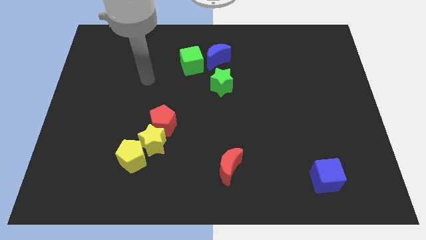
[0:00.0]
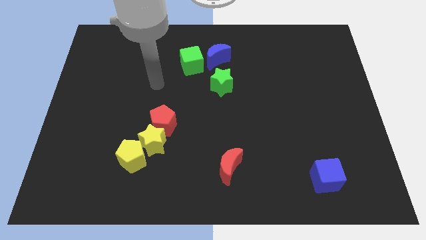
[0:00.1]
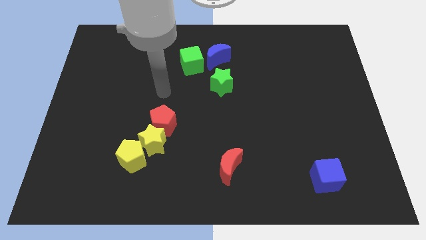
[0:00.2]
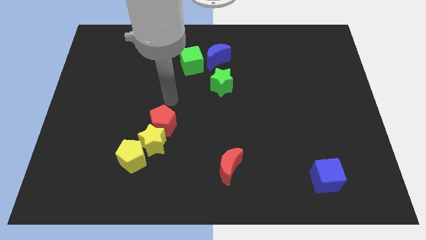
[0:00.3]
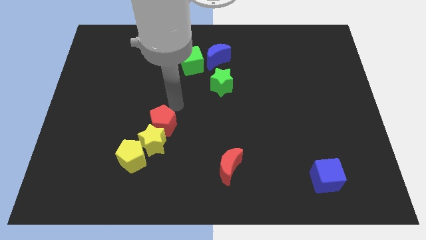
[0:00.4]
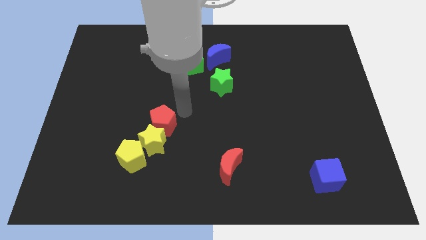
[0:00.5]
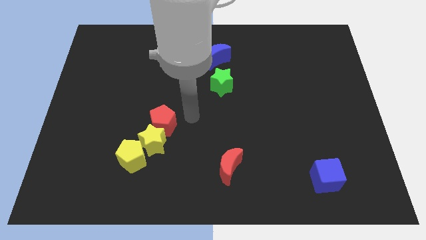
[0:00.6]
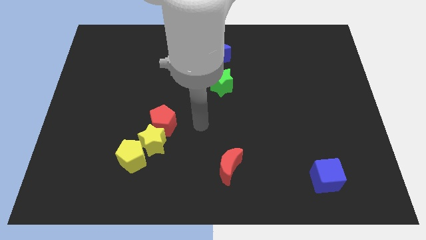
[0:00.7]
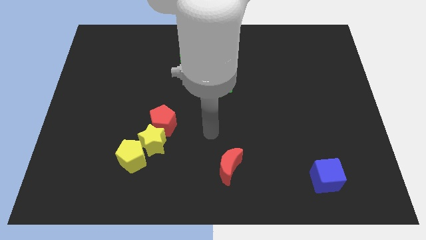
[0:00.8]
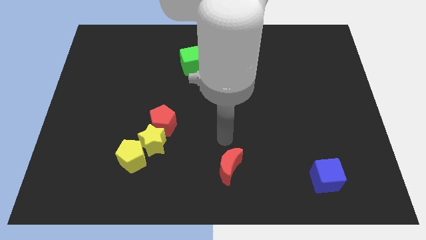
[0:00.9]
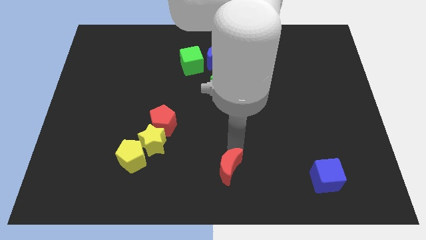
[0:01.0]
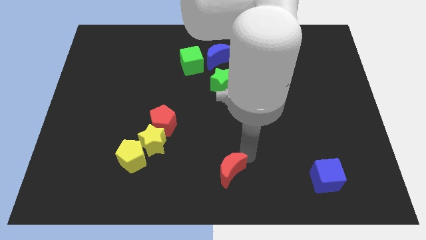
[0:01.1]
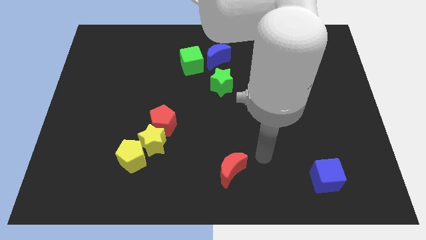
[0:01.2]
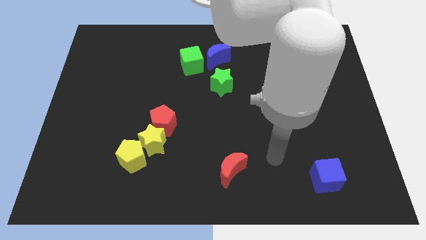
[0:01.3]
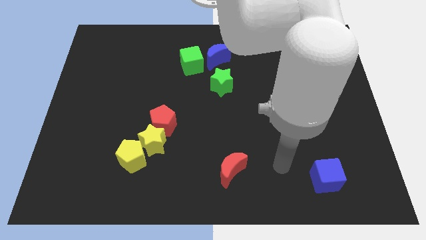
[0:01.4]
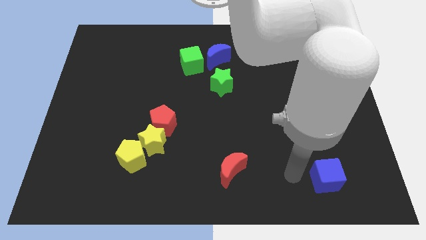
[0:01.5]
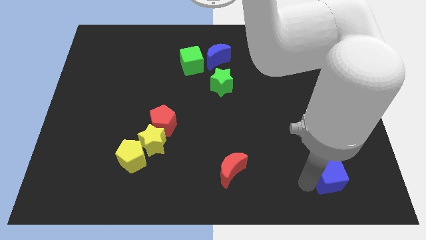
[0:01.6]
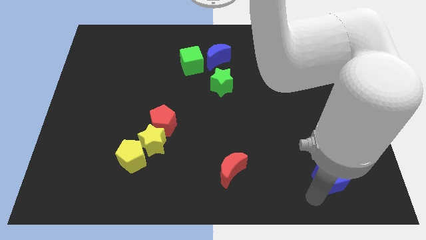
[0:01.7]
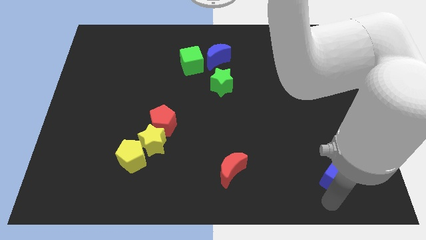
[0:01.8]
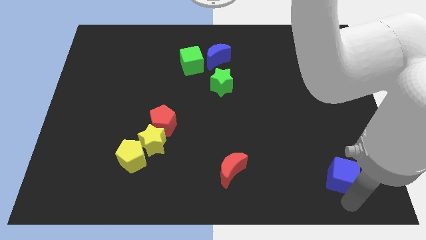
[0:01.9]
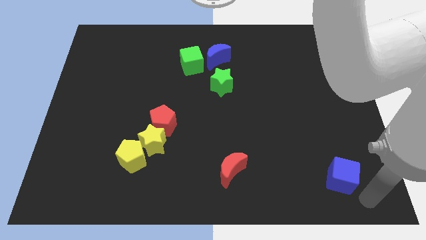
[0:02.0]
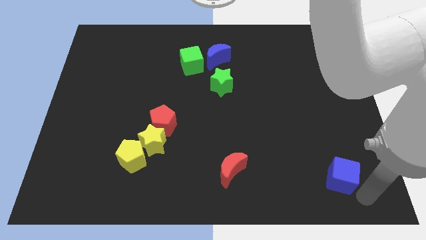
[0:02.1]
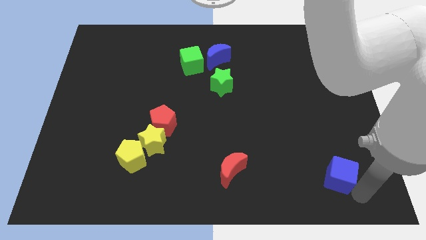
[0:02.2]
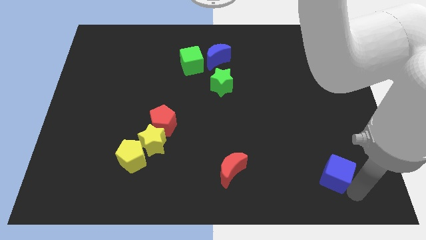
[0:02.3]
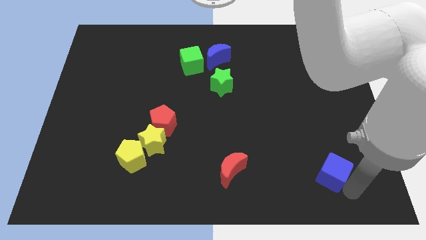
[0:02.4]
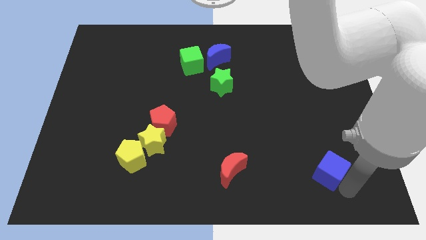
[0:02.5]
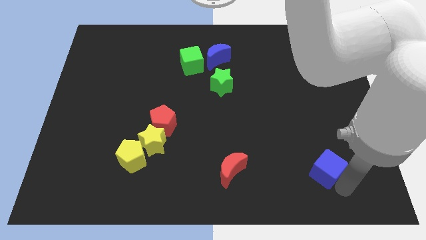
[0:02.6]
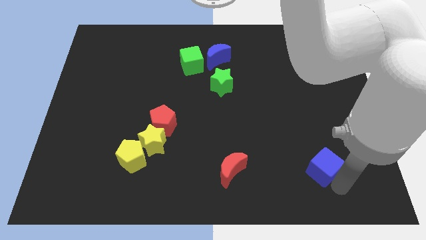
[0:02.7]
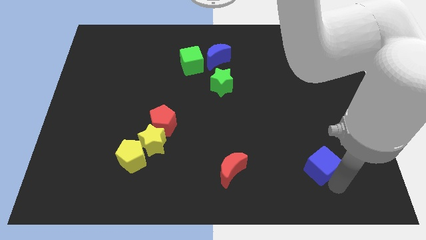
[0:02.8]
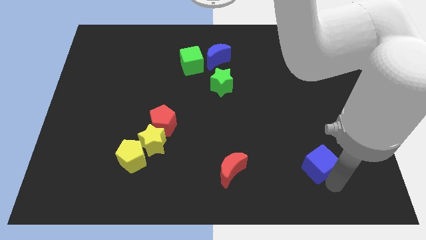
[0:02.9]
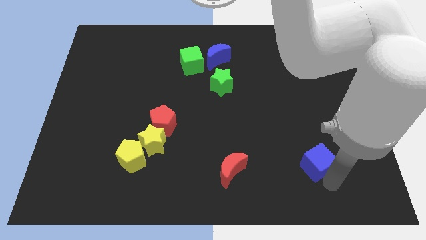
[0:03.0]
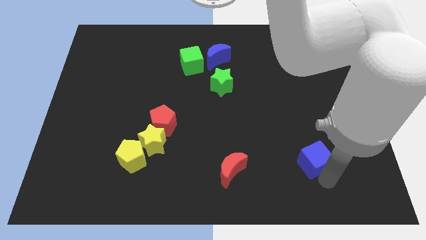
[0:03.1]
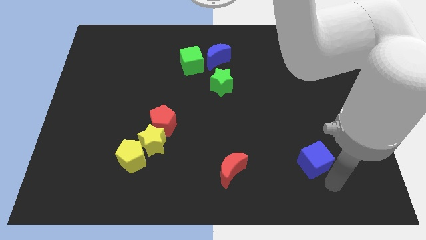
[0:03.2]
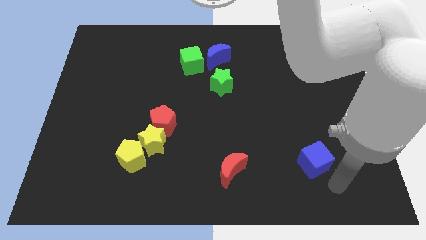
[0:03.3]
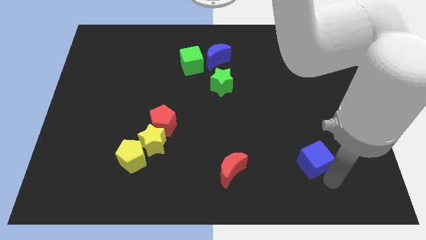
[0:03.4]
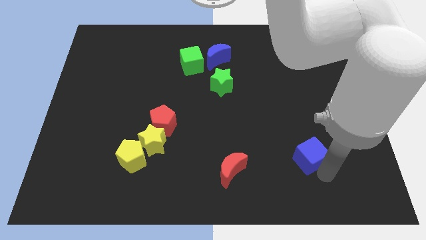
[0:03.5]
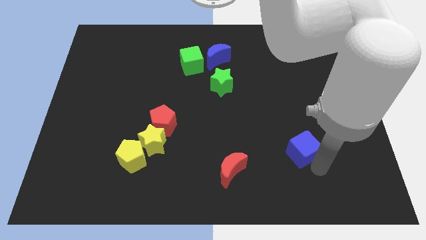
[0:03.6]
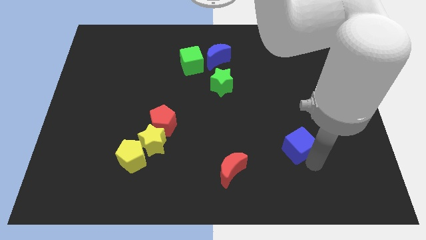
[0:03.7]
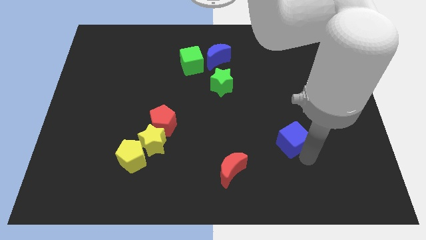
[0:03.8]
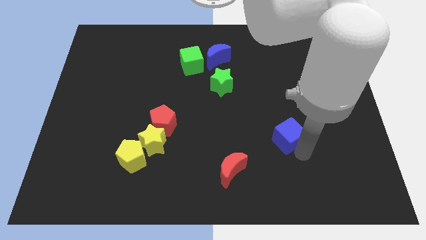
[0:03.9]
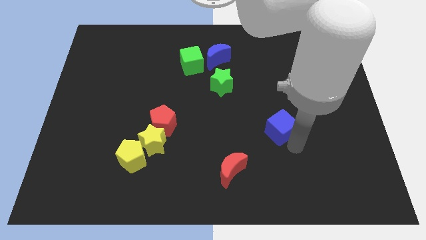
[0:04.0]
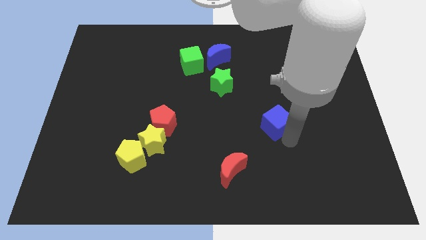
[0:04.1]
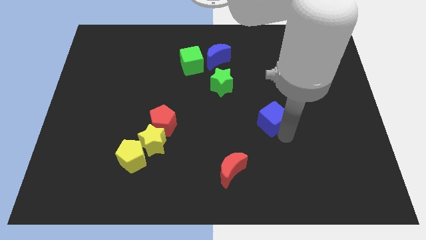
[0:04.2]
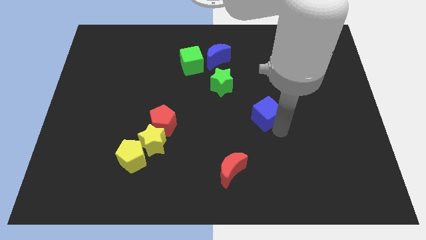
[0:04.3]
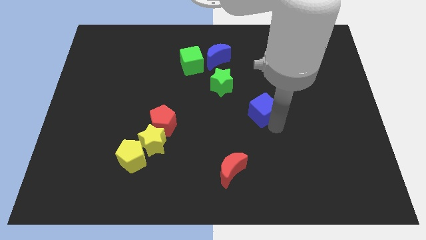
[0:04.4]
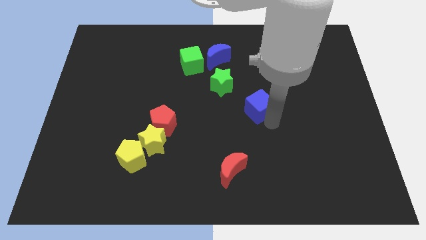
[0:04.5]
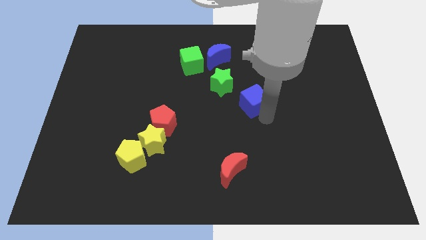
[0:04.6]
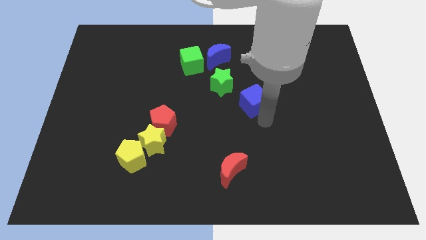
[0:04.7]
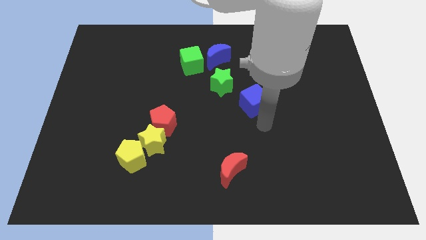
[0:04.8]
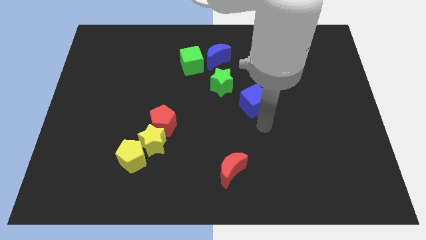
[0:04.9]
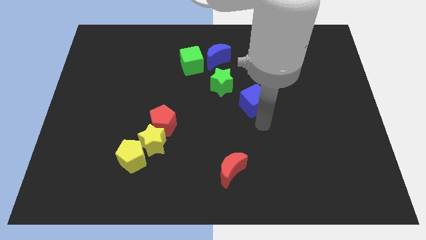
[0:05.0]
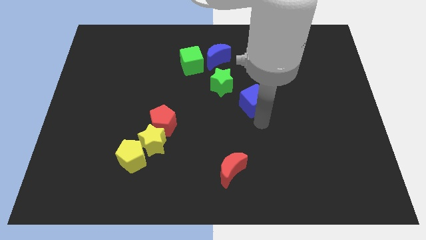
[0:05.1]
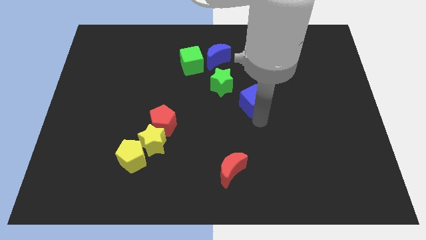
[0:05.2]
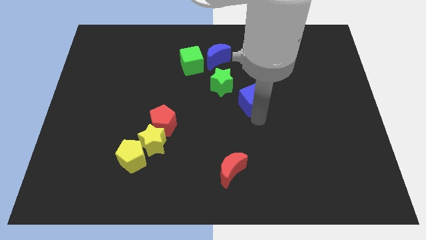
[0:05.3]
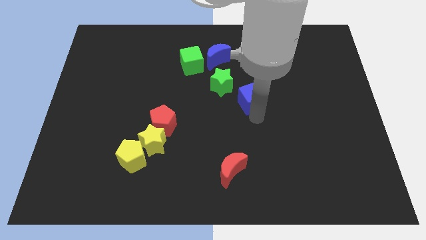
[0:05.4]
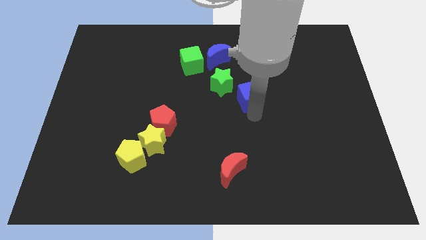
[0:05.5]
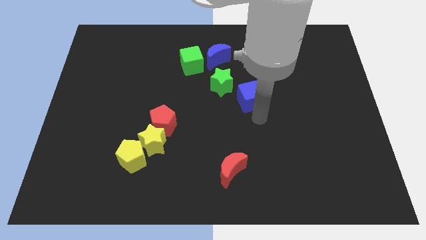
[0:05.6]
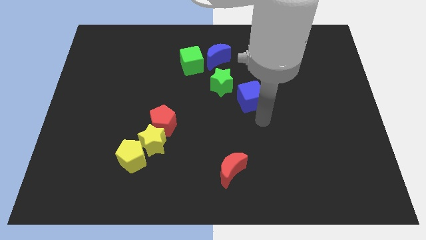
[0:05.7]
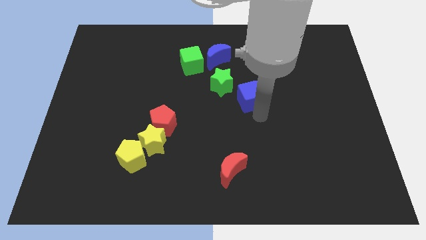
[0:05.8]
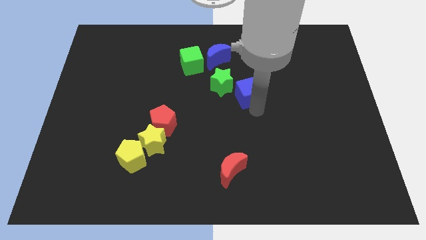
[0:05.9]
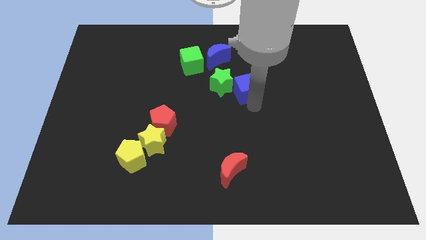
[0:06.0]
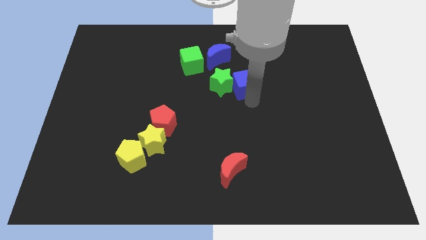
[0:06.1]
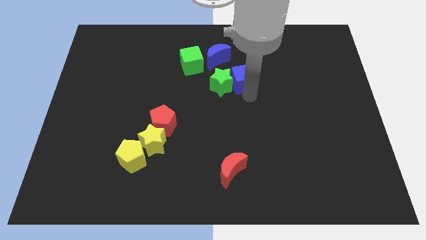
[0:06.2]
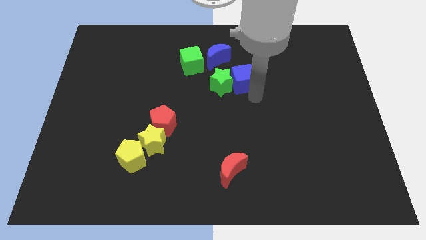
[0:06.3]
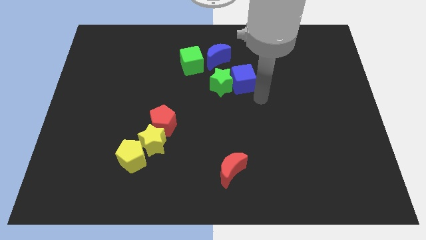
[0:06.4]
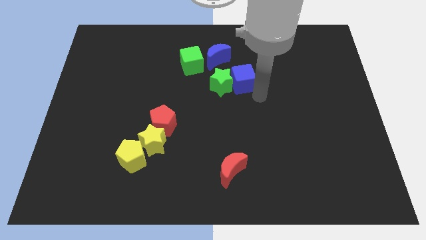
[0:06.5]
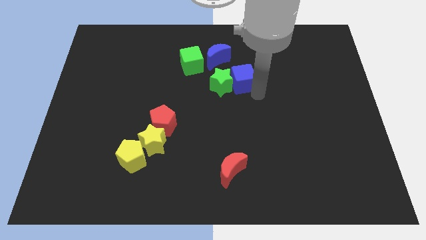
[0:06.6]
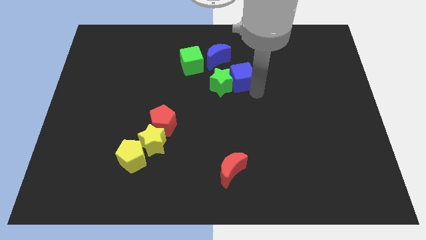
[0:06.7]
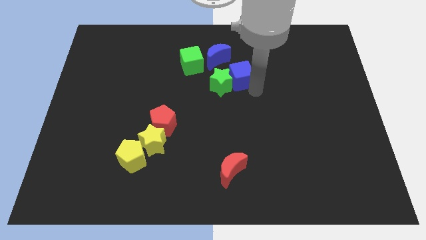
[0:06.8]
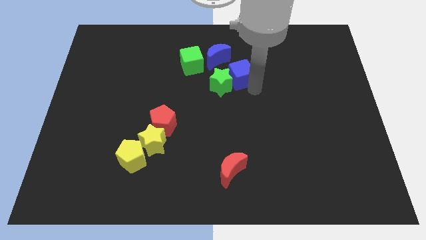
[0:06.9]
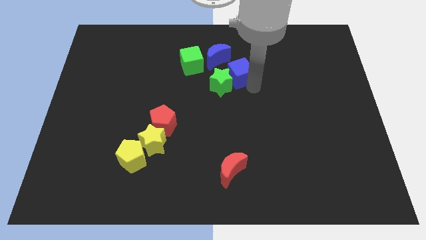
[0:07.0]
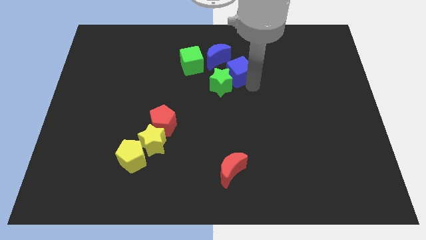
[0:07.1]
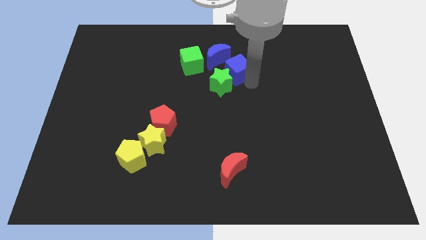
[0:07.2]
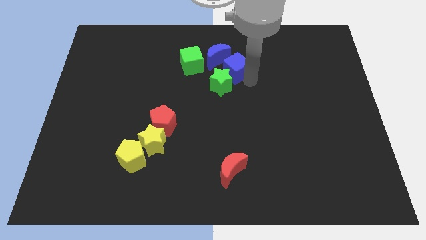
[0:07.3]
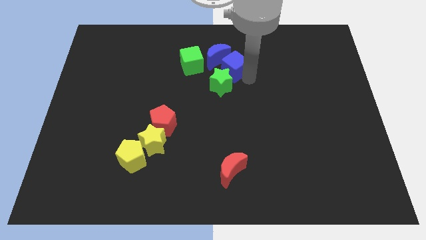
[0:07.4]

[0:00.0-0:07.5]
move the blue cube close to the blue moon

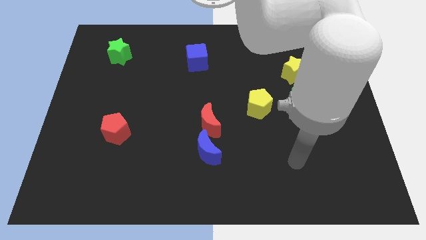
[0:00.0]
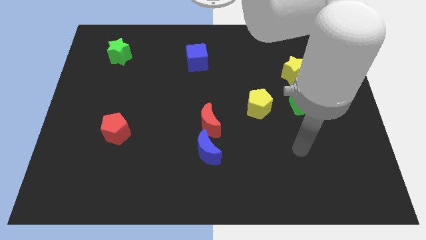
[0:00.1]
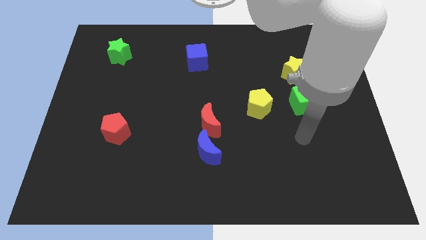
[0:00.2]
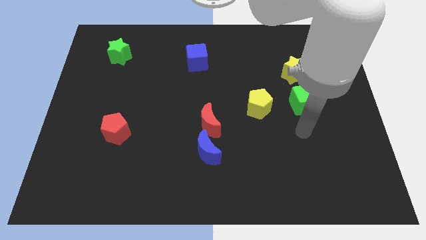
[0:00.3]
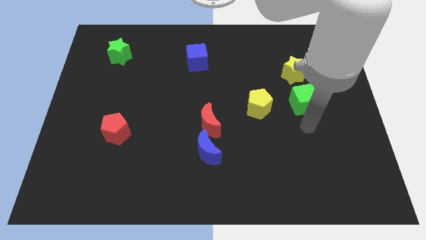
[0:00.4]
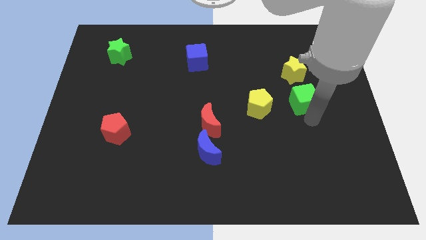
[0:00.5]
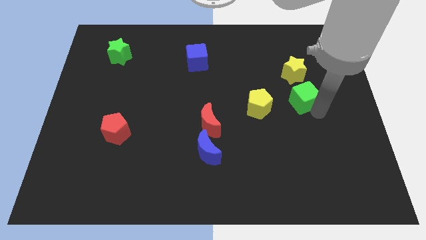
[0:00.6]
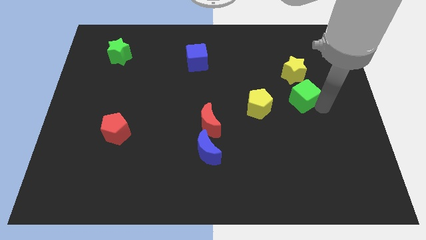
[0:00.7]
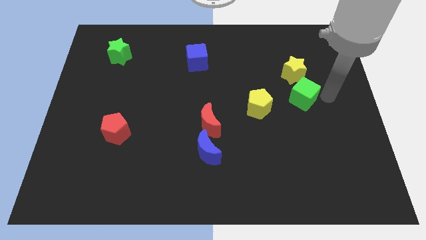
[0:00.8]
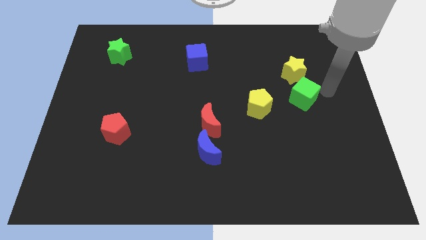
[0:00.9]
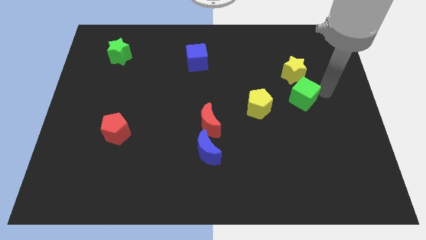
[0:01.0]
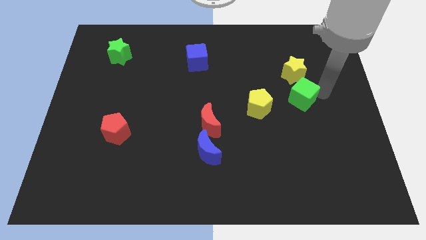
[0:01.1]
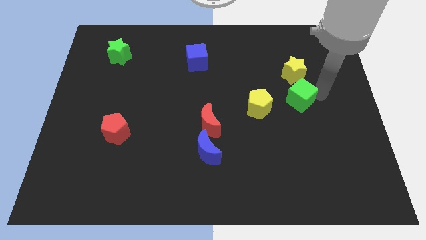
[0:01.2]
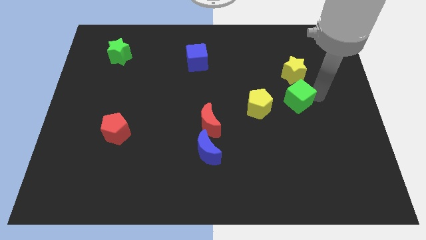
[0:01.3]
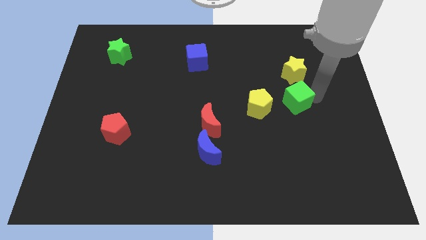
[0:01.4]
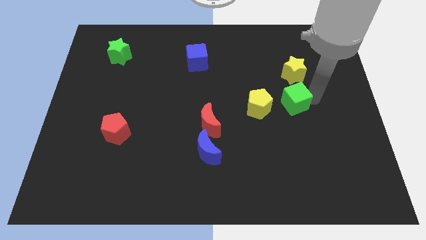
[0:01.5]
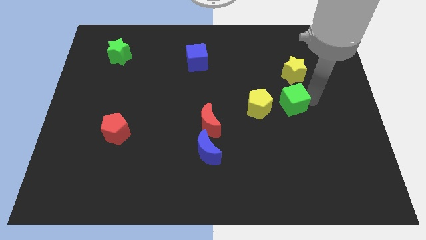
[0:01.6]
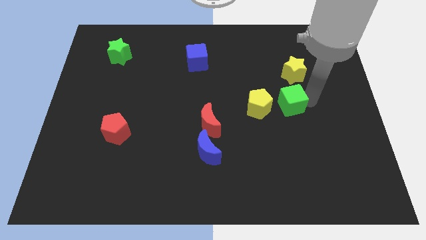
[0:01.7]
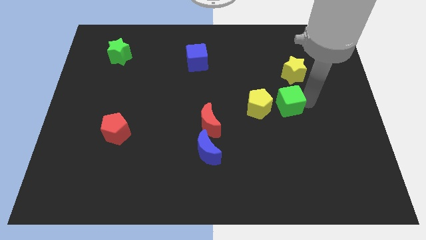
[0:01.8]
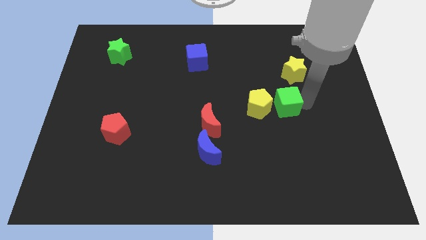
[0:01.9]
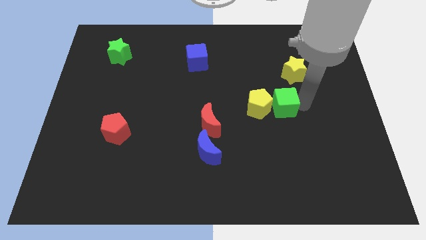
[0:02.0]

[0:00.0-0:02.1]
move the green cube towards the yellow pentagon
